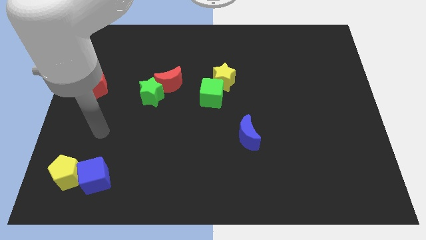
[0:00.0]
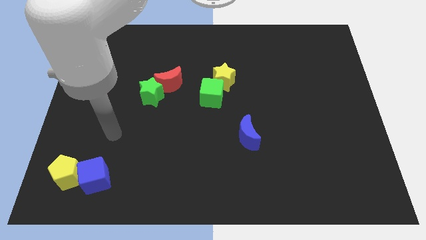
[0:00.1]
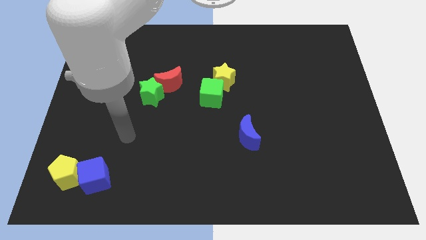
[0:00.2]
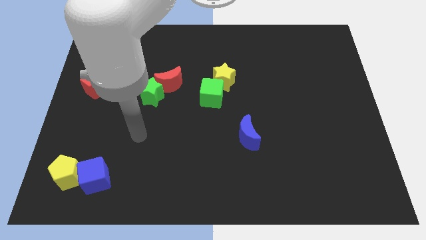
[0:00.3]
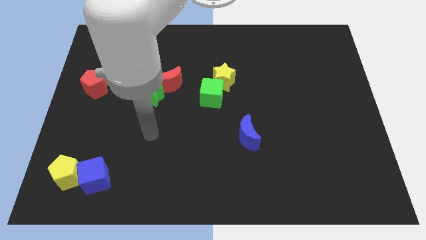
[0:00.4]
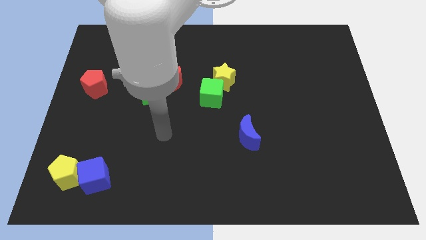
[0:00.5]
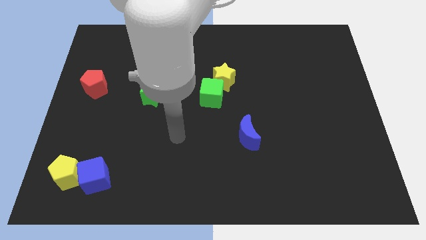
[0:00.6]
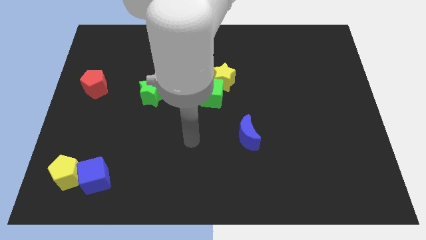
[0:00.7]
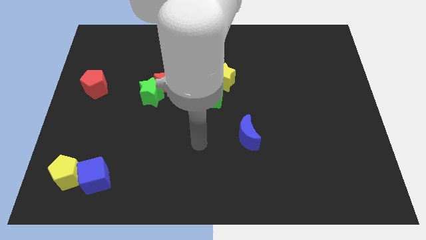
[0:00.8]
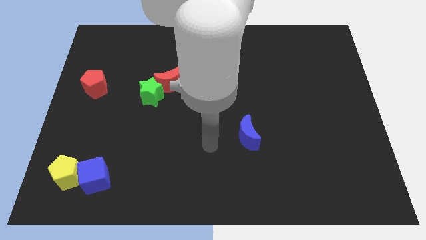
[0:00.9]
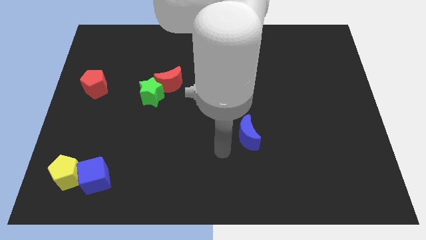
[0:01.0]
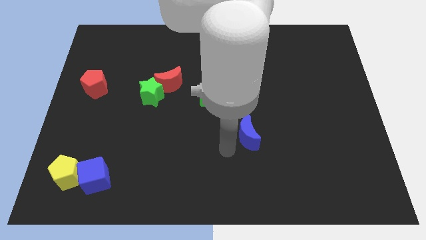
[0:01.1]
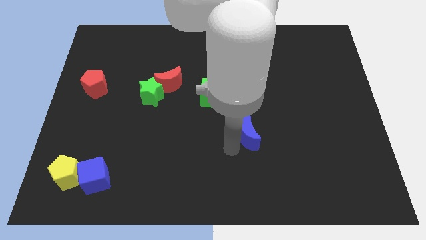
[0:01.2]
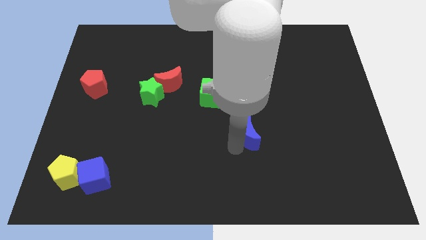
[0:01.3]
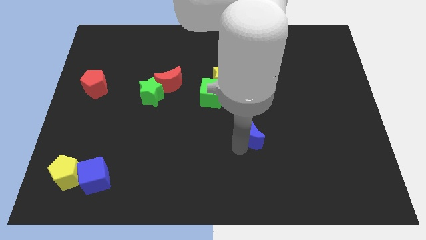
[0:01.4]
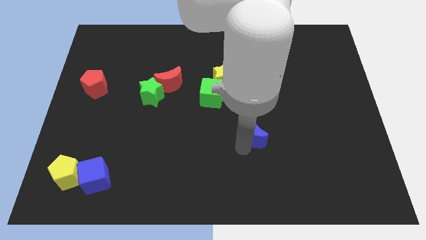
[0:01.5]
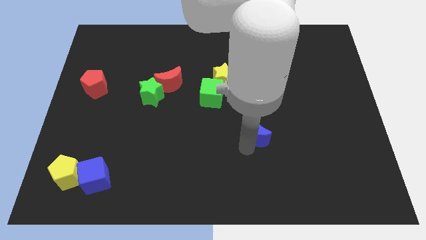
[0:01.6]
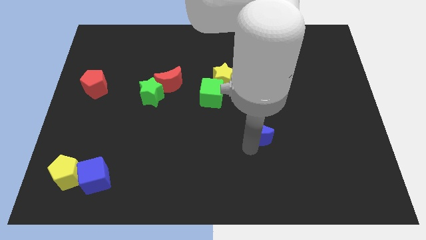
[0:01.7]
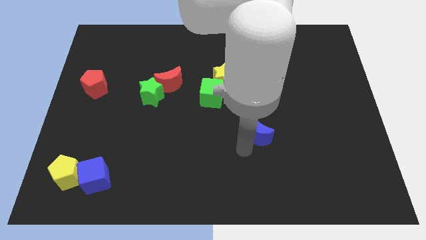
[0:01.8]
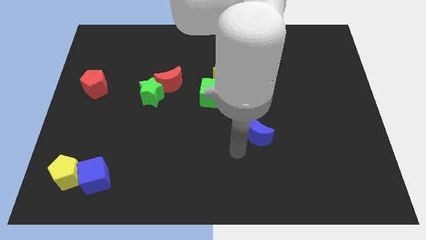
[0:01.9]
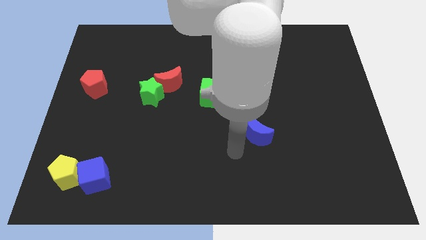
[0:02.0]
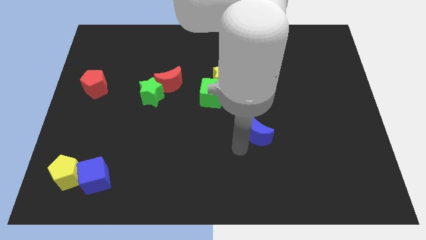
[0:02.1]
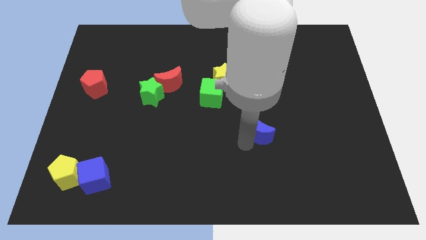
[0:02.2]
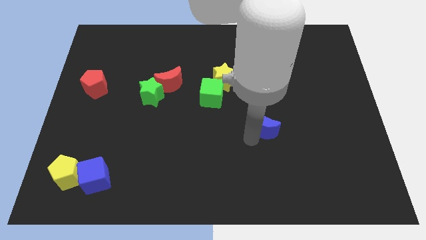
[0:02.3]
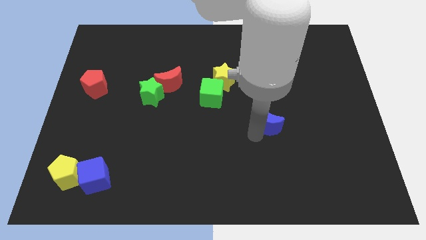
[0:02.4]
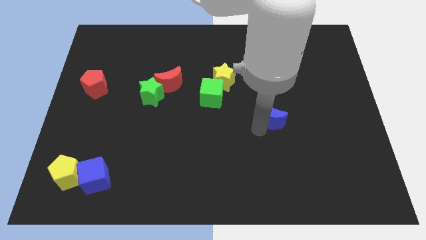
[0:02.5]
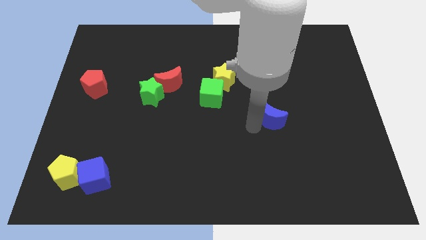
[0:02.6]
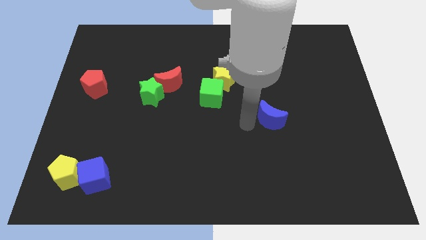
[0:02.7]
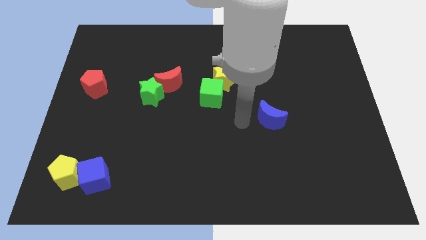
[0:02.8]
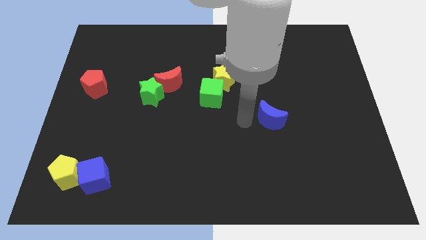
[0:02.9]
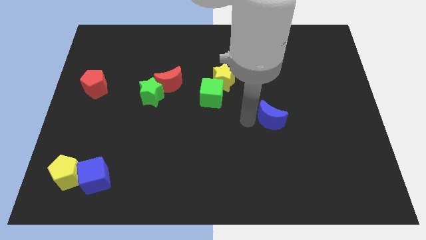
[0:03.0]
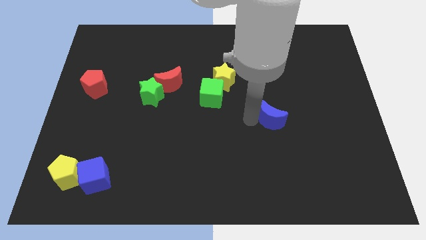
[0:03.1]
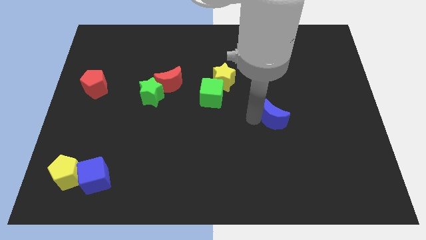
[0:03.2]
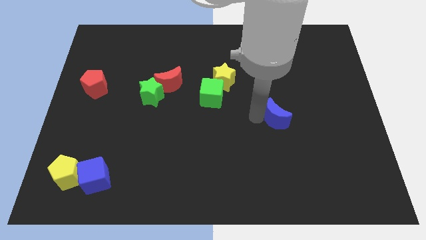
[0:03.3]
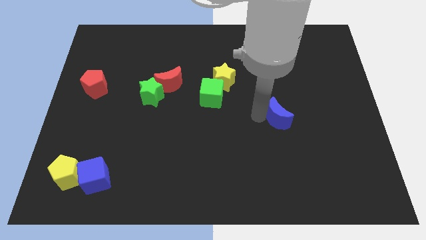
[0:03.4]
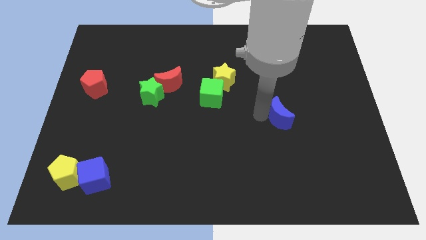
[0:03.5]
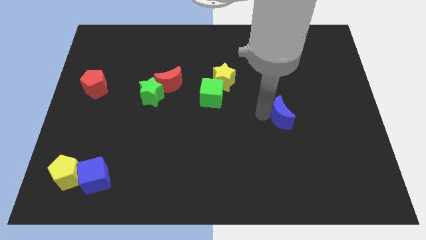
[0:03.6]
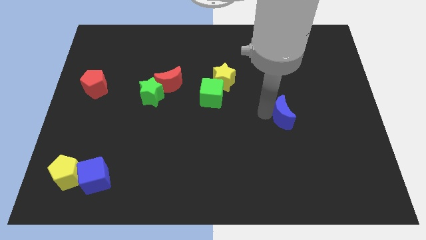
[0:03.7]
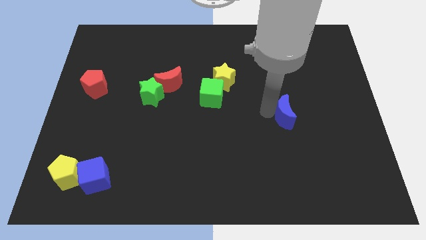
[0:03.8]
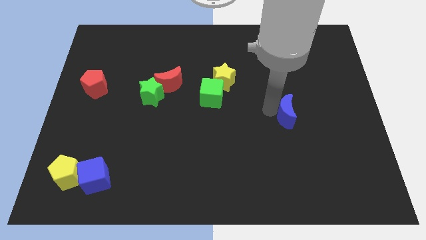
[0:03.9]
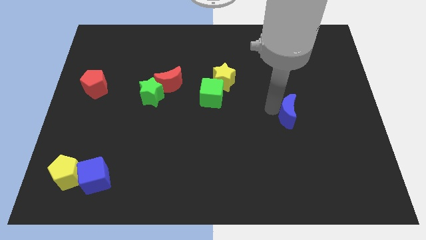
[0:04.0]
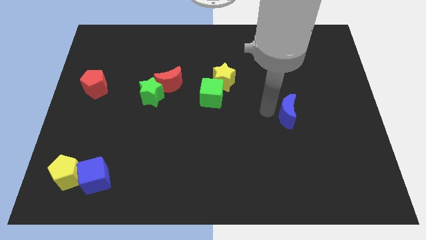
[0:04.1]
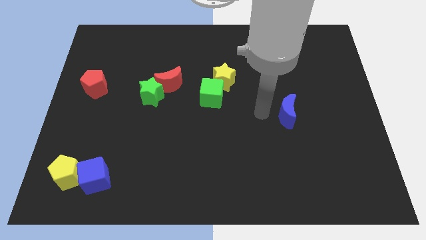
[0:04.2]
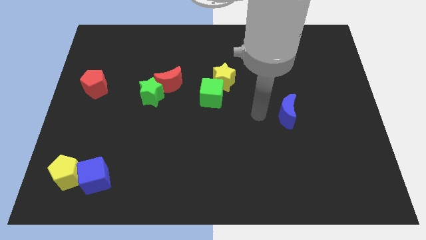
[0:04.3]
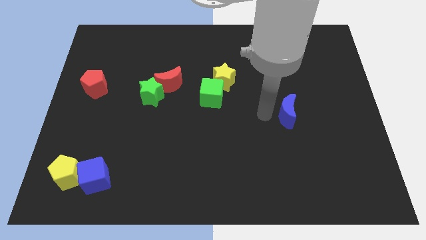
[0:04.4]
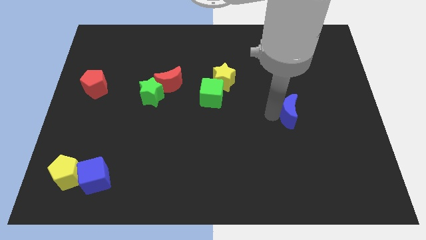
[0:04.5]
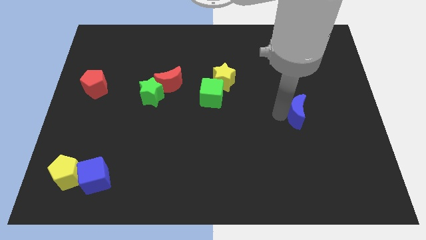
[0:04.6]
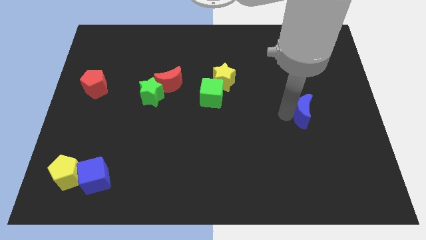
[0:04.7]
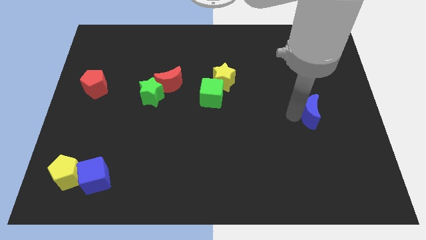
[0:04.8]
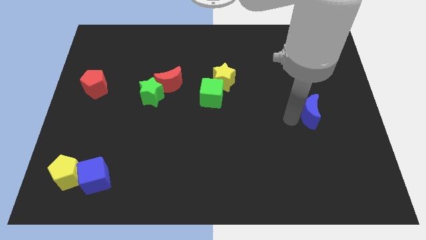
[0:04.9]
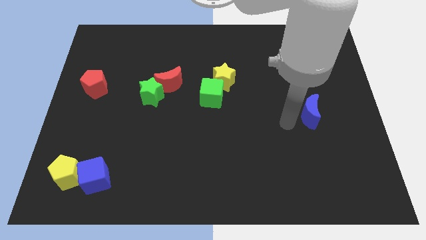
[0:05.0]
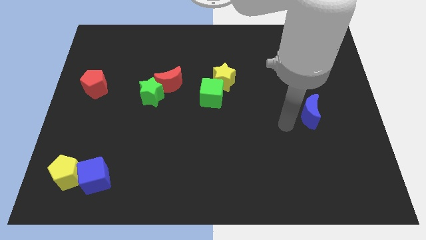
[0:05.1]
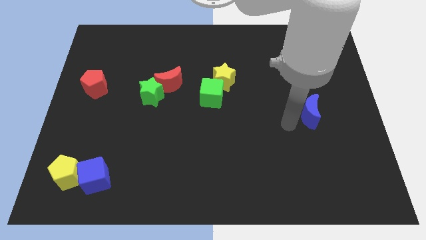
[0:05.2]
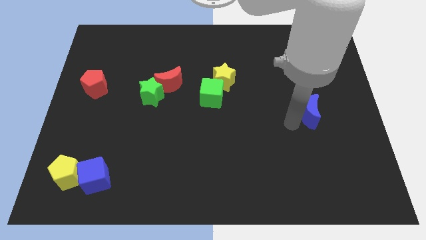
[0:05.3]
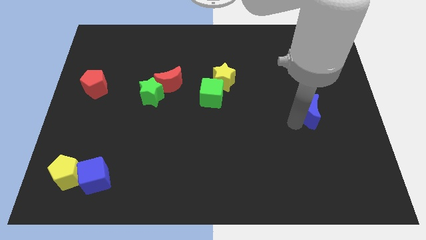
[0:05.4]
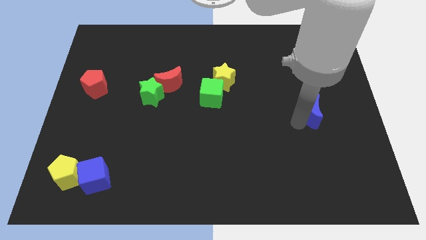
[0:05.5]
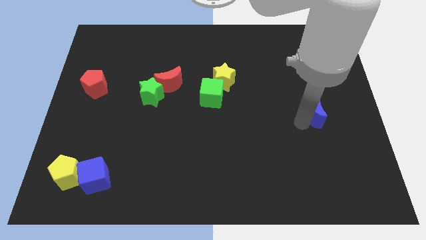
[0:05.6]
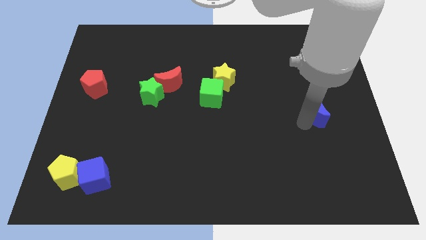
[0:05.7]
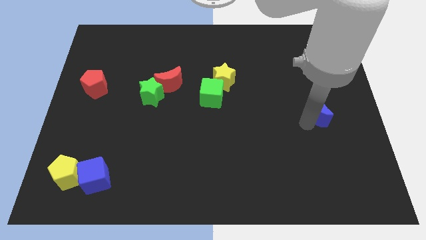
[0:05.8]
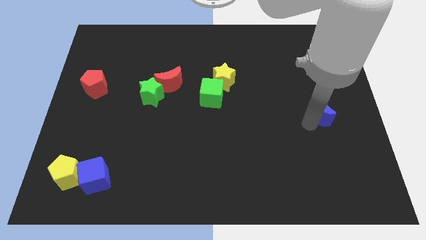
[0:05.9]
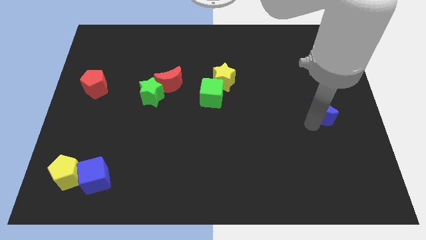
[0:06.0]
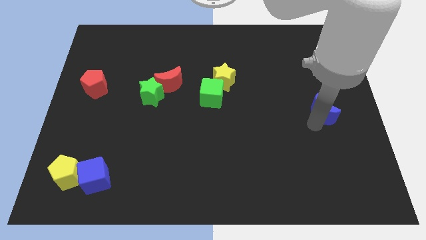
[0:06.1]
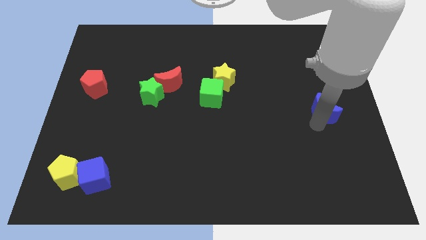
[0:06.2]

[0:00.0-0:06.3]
move the blue moon to the center right
